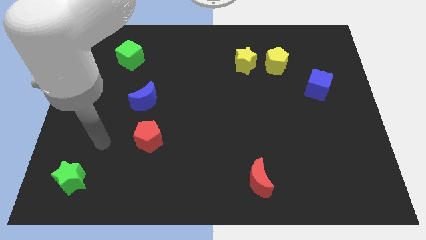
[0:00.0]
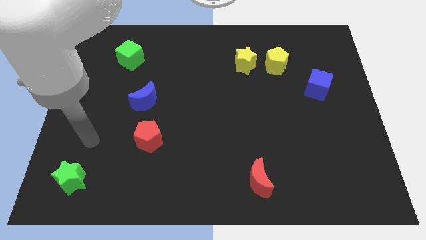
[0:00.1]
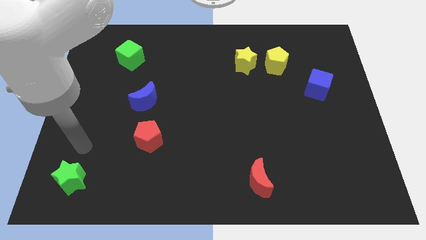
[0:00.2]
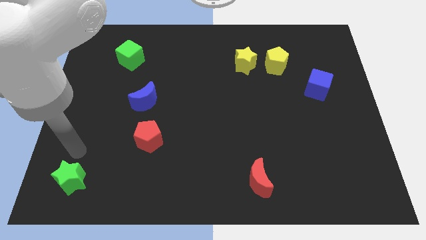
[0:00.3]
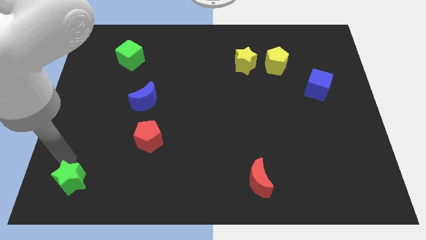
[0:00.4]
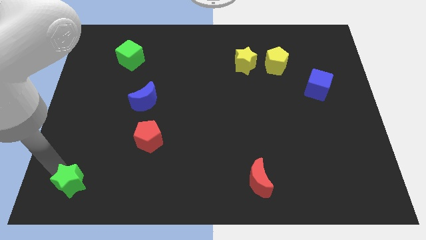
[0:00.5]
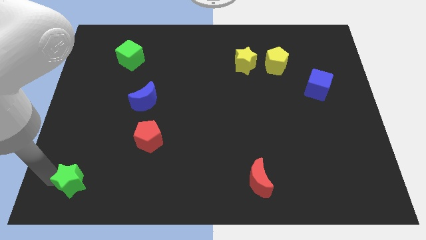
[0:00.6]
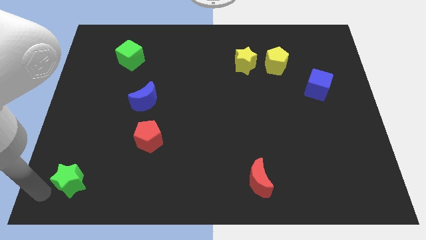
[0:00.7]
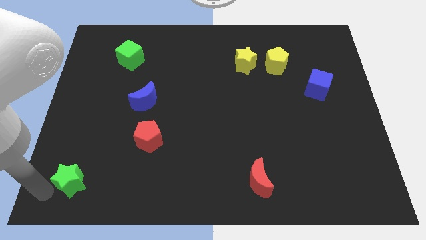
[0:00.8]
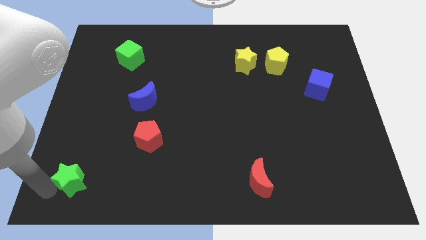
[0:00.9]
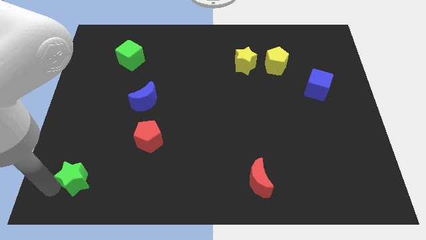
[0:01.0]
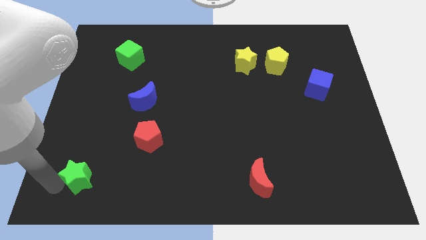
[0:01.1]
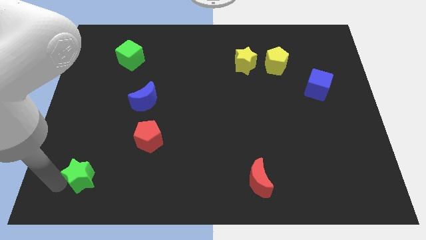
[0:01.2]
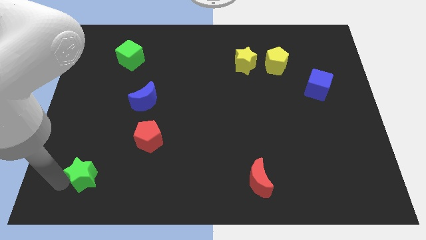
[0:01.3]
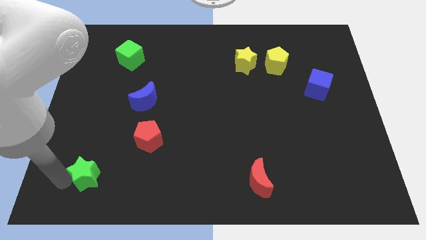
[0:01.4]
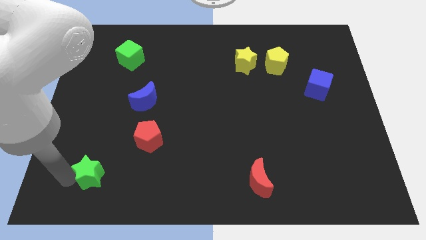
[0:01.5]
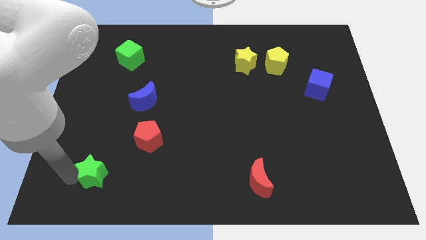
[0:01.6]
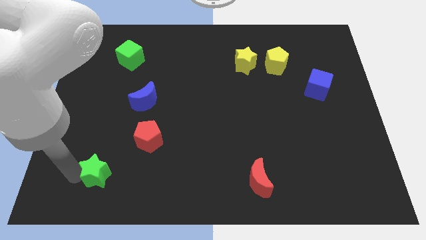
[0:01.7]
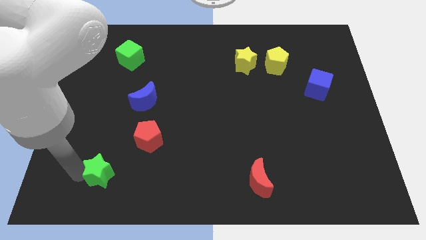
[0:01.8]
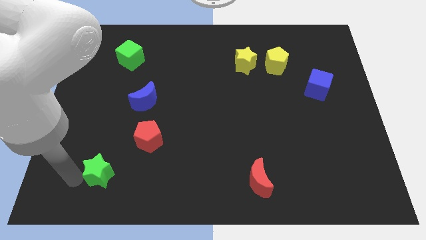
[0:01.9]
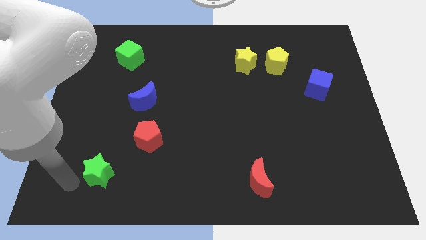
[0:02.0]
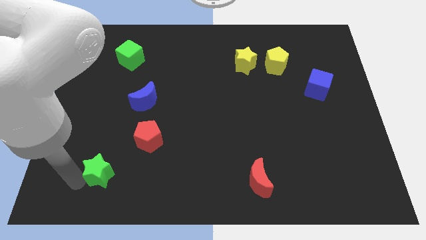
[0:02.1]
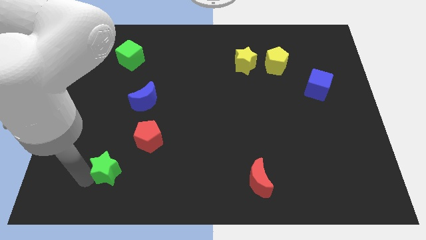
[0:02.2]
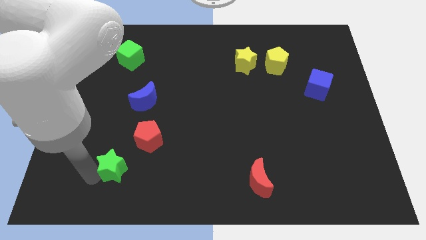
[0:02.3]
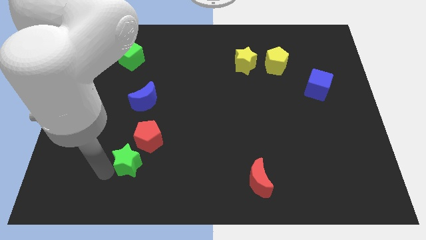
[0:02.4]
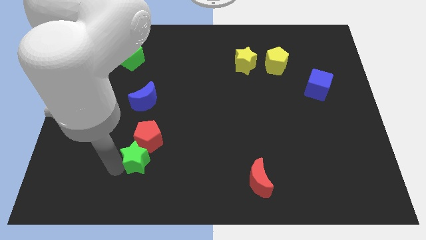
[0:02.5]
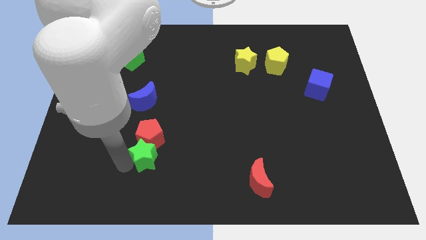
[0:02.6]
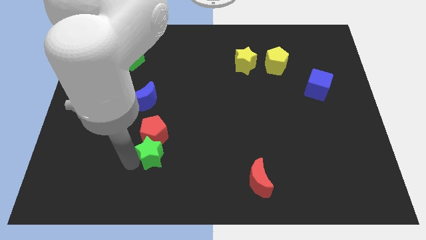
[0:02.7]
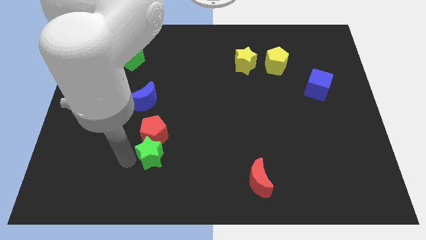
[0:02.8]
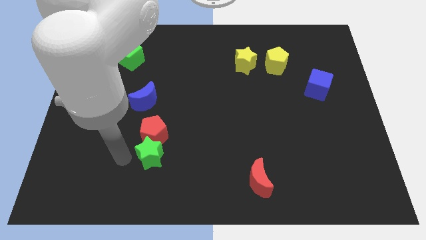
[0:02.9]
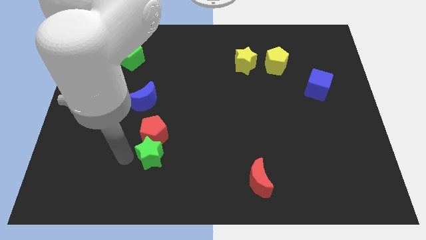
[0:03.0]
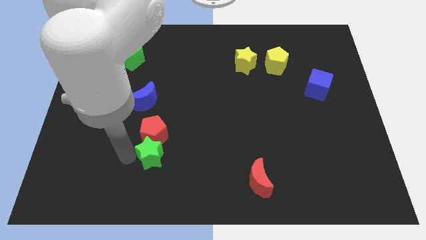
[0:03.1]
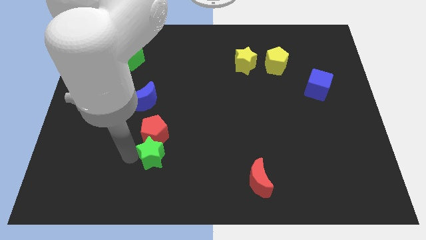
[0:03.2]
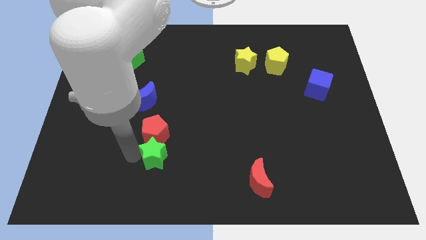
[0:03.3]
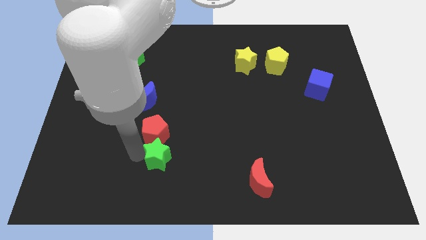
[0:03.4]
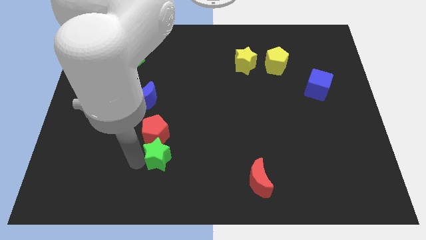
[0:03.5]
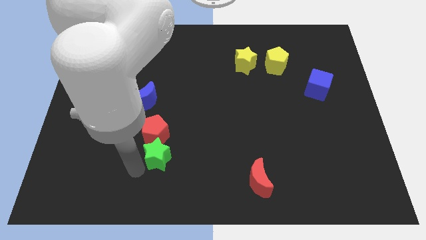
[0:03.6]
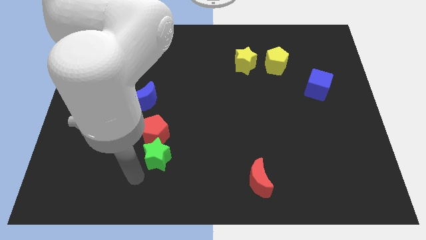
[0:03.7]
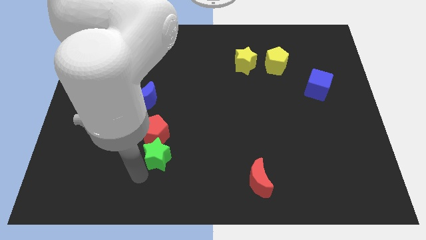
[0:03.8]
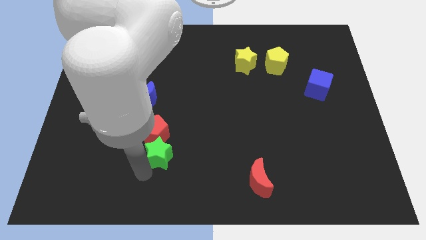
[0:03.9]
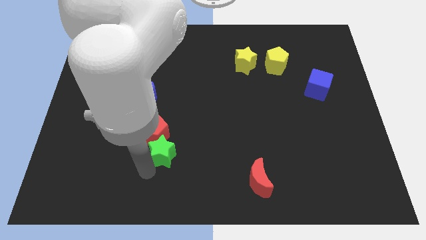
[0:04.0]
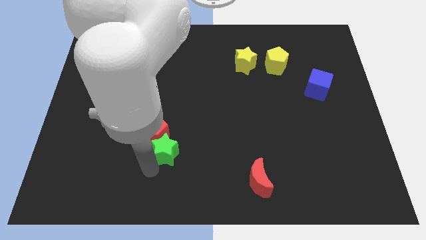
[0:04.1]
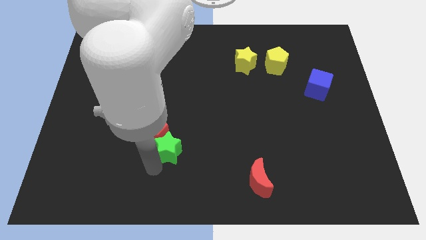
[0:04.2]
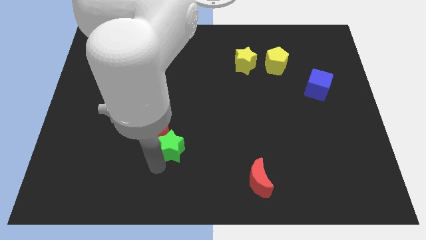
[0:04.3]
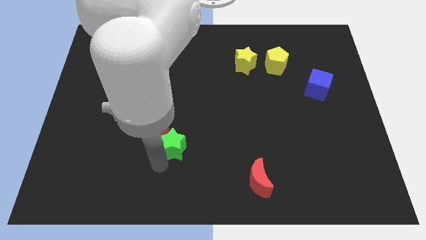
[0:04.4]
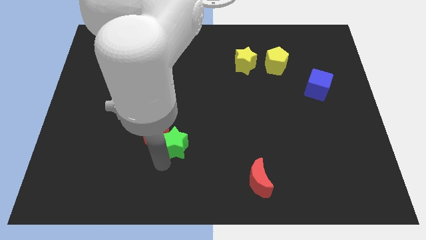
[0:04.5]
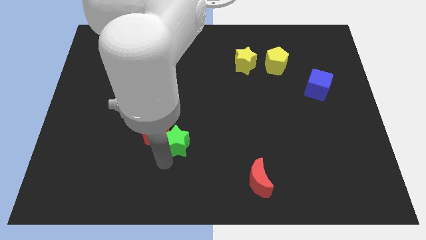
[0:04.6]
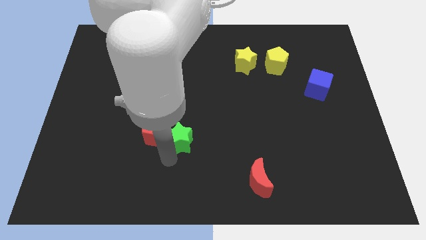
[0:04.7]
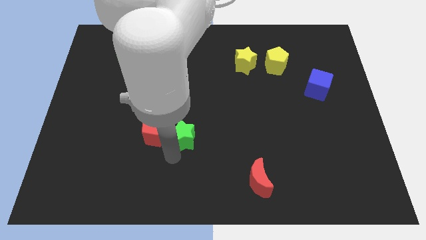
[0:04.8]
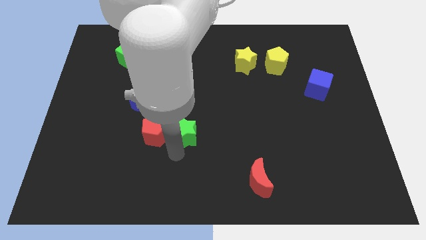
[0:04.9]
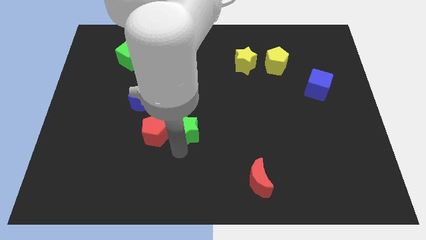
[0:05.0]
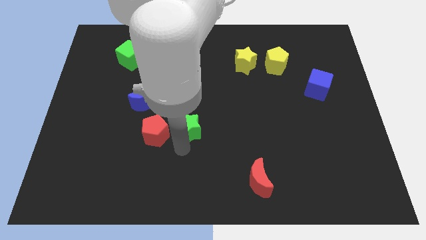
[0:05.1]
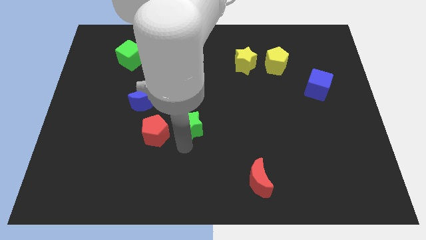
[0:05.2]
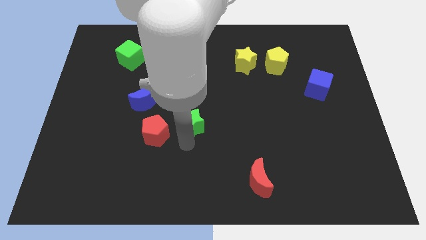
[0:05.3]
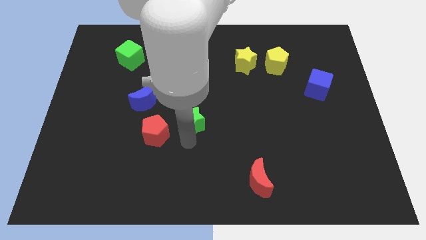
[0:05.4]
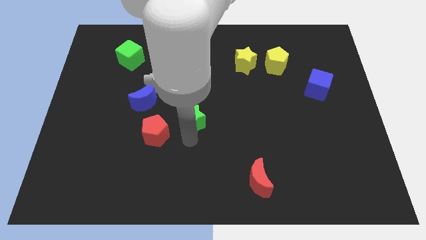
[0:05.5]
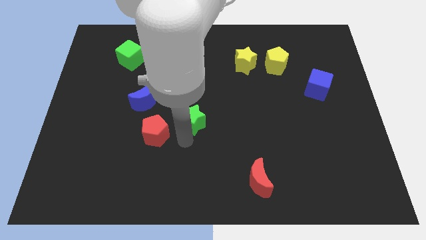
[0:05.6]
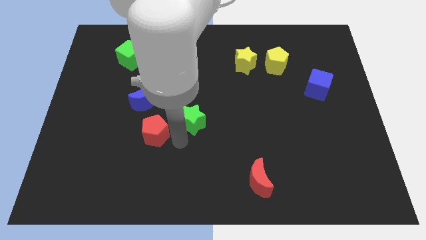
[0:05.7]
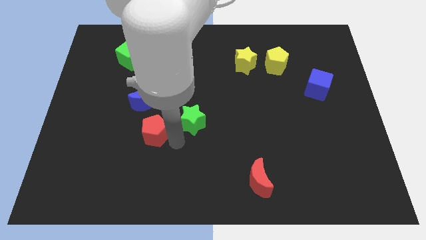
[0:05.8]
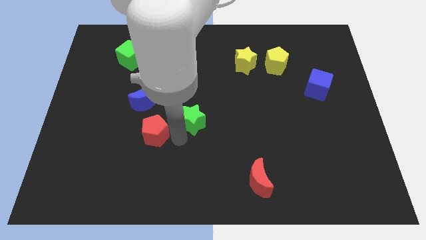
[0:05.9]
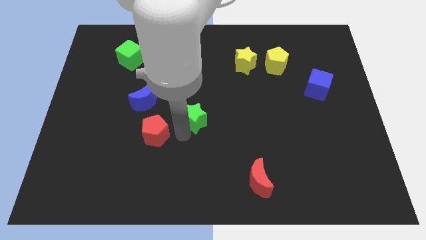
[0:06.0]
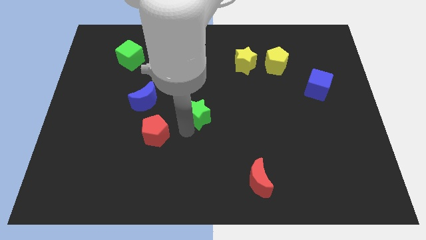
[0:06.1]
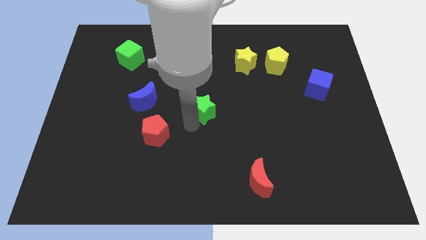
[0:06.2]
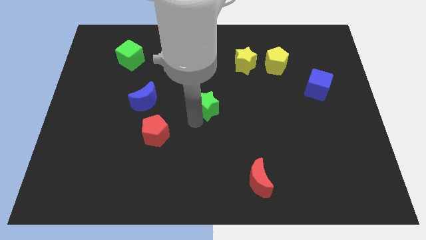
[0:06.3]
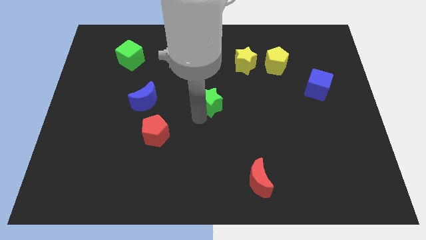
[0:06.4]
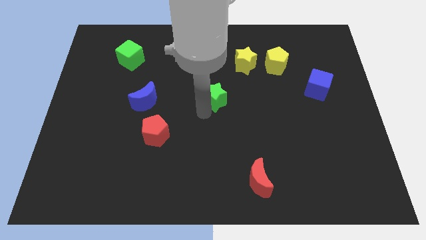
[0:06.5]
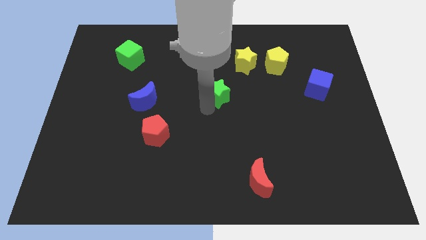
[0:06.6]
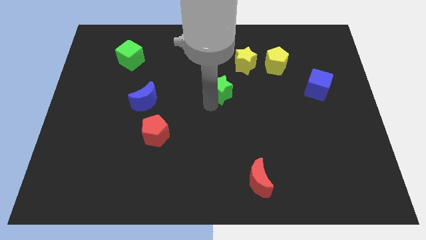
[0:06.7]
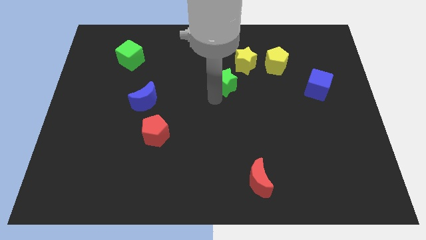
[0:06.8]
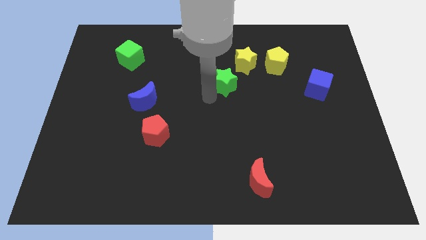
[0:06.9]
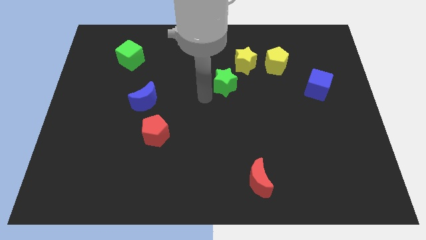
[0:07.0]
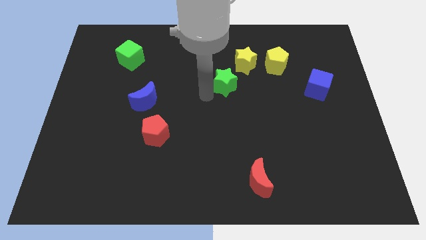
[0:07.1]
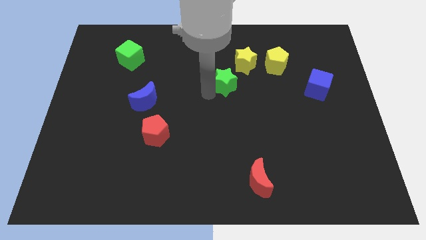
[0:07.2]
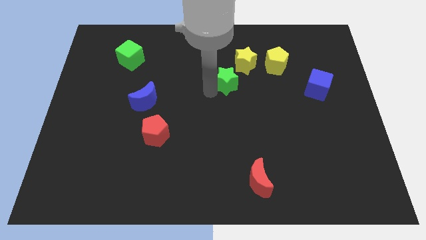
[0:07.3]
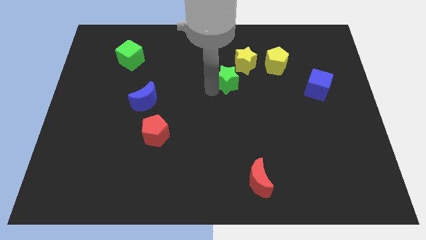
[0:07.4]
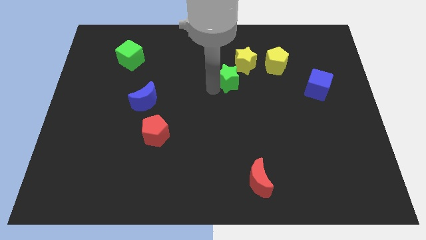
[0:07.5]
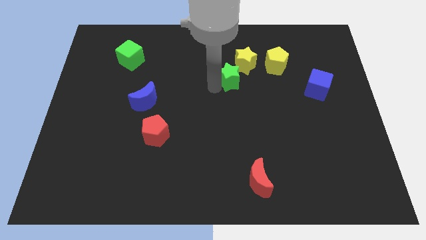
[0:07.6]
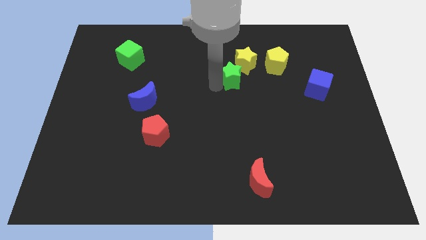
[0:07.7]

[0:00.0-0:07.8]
move the green star towards the yellow star
